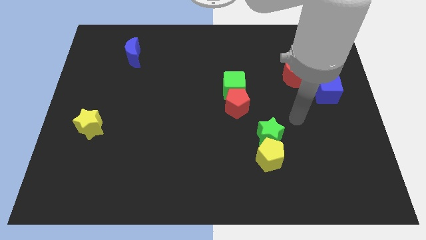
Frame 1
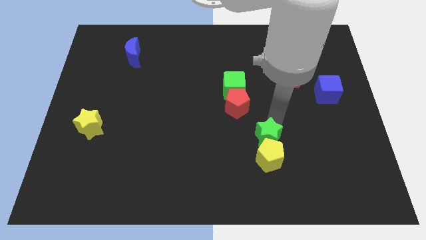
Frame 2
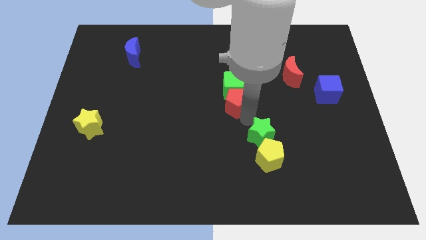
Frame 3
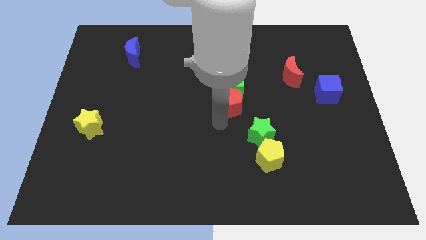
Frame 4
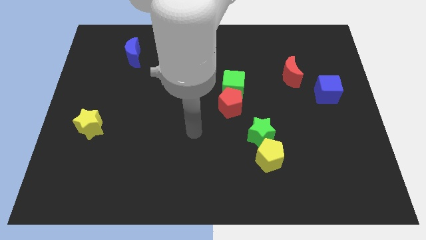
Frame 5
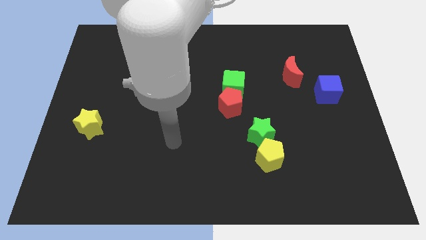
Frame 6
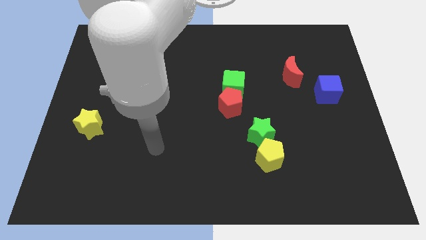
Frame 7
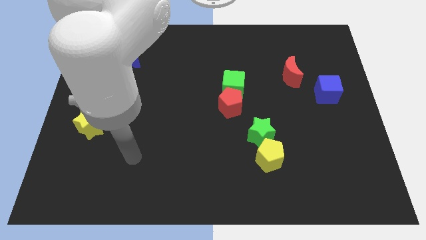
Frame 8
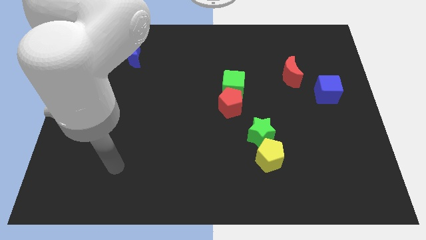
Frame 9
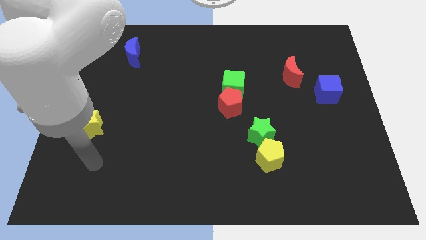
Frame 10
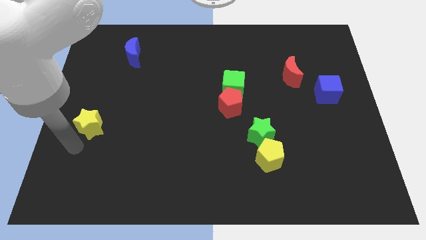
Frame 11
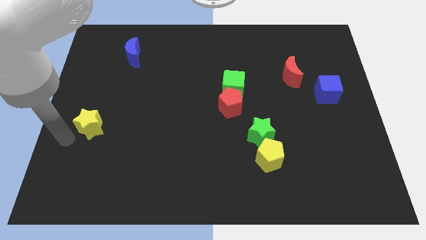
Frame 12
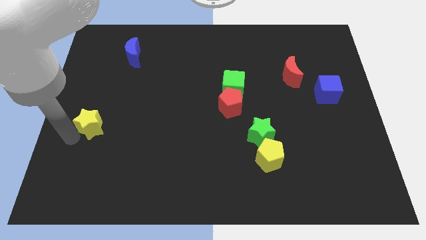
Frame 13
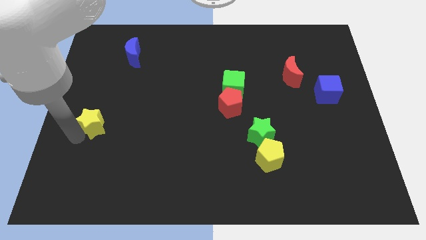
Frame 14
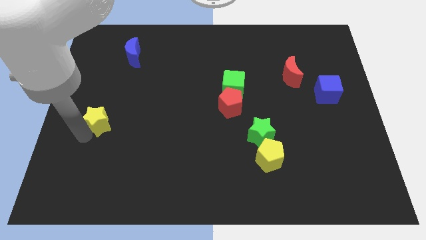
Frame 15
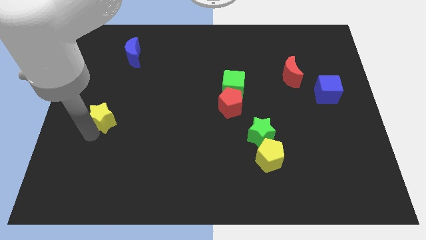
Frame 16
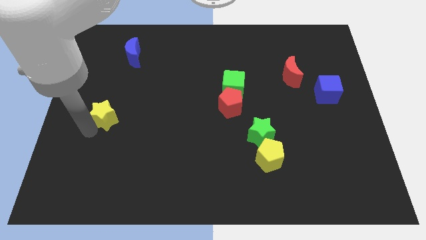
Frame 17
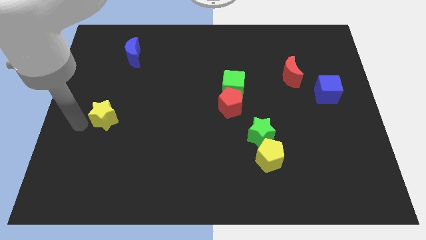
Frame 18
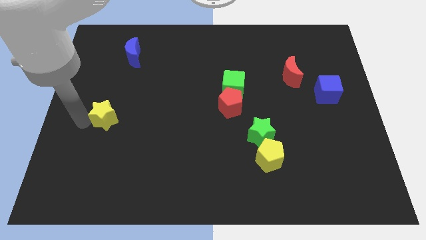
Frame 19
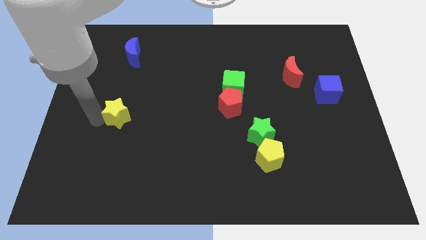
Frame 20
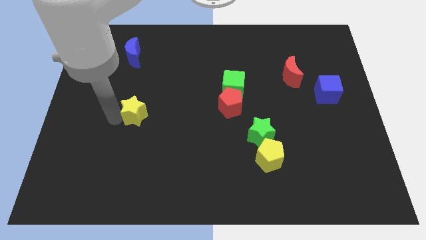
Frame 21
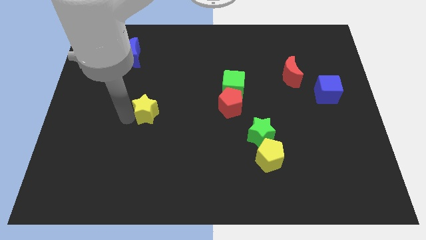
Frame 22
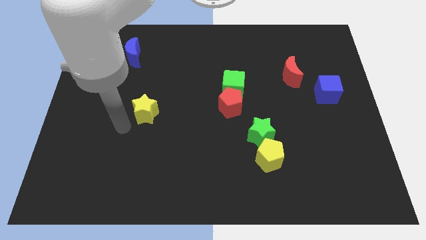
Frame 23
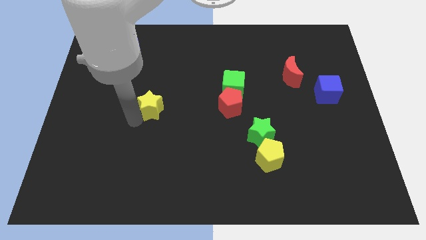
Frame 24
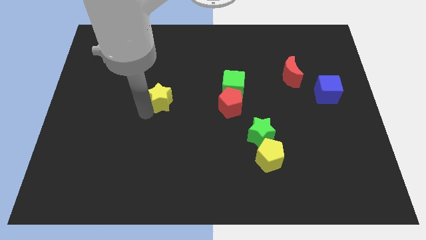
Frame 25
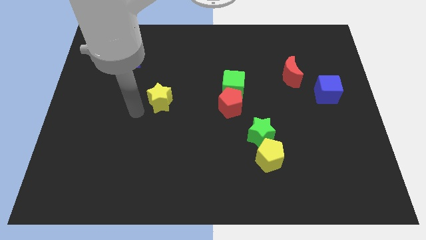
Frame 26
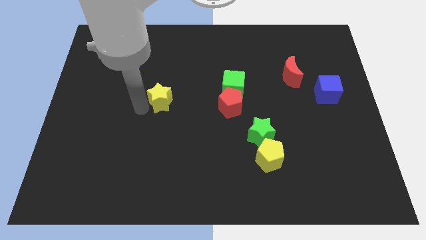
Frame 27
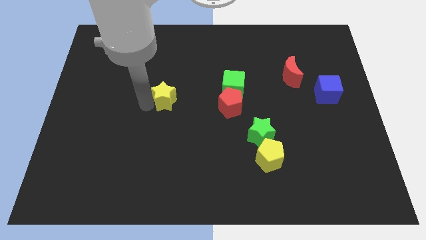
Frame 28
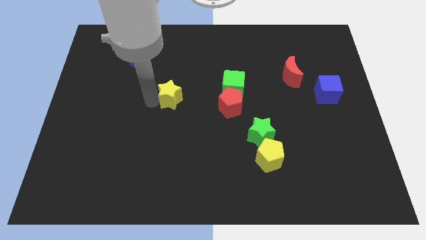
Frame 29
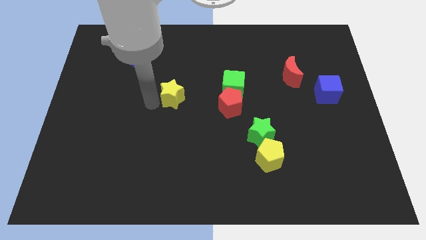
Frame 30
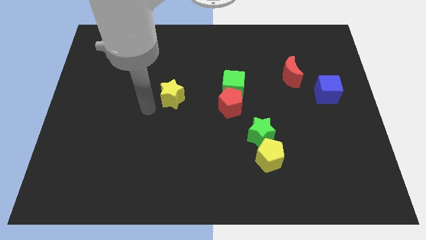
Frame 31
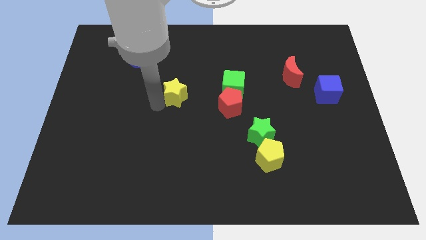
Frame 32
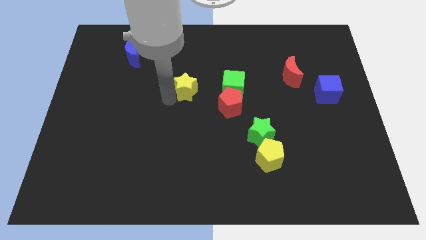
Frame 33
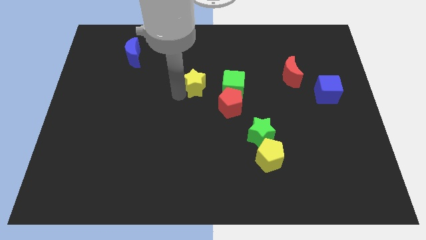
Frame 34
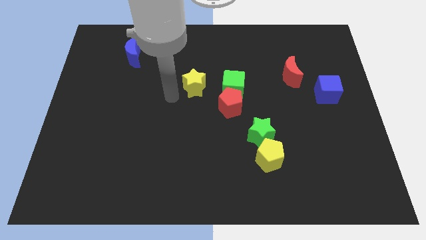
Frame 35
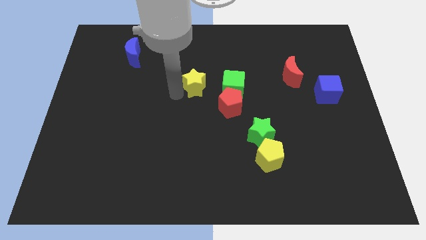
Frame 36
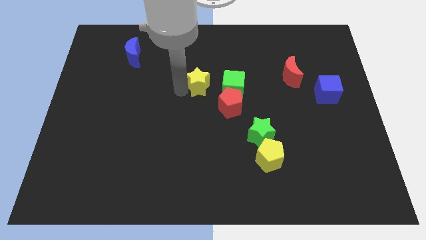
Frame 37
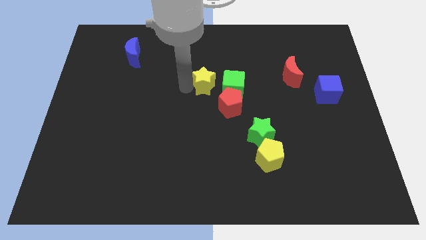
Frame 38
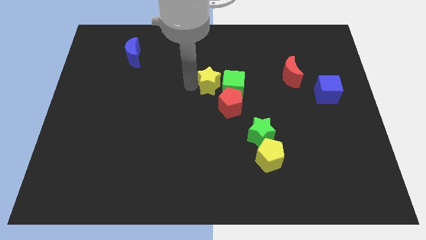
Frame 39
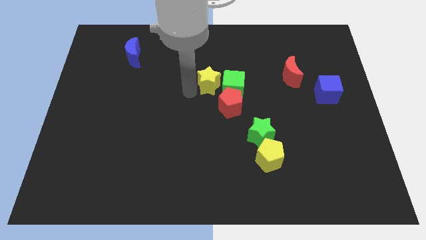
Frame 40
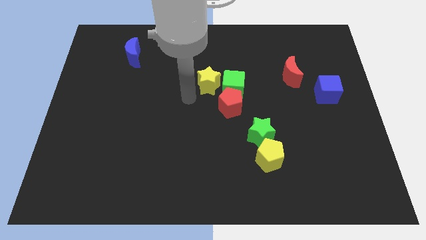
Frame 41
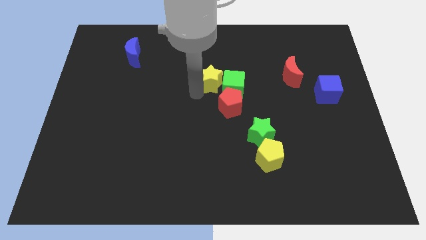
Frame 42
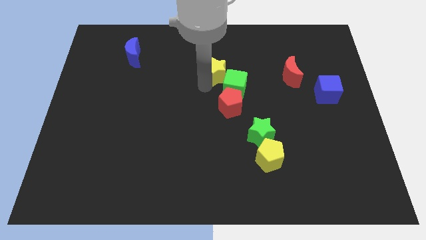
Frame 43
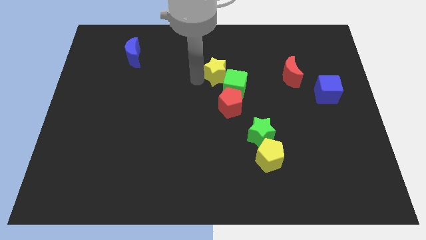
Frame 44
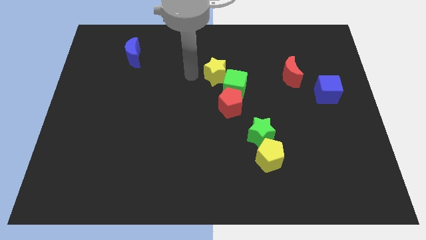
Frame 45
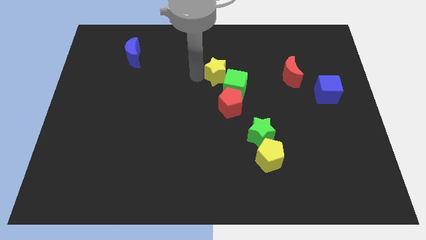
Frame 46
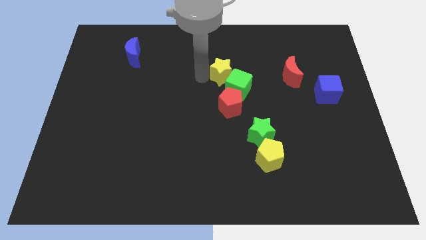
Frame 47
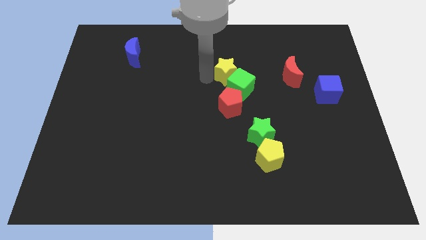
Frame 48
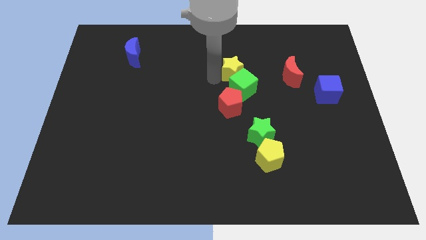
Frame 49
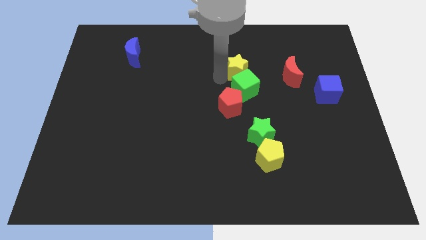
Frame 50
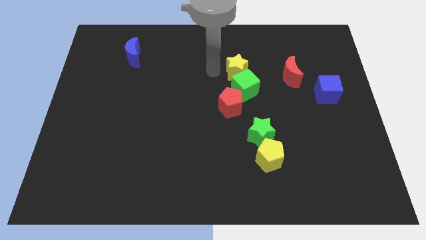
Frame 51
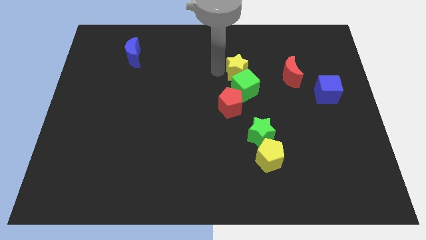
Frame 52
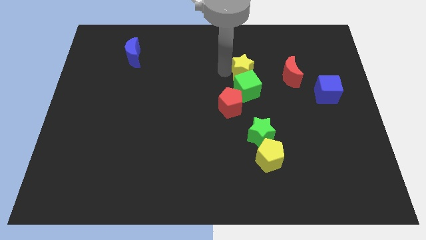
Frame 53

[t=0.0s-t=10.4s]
move the yellow star to the top right of the green cube

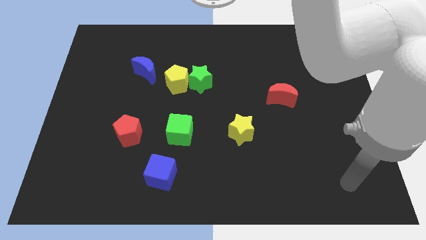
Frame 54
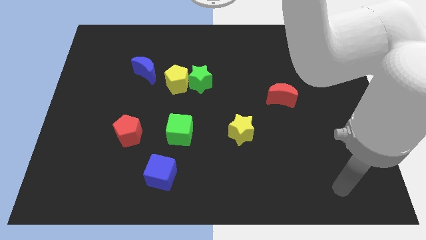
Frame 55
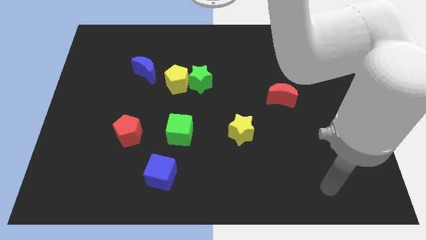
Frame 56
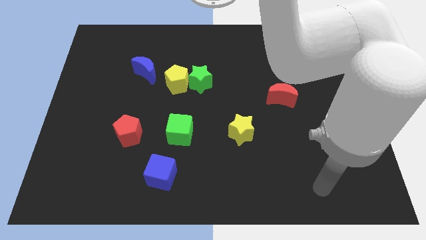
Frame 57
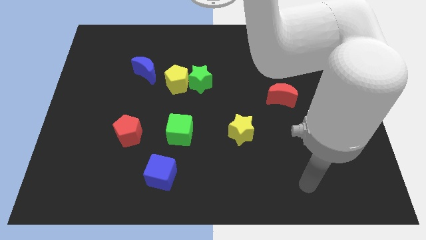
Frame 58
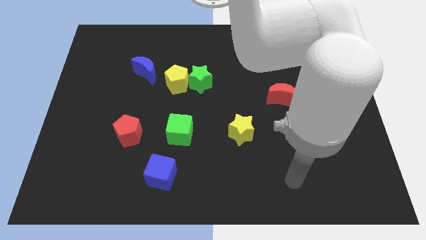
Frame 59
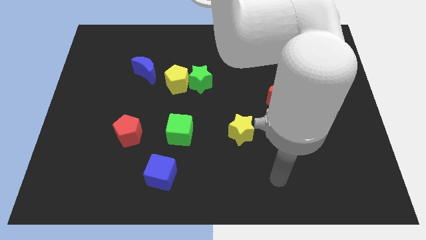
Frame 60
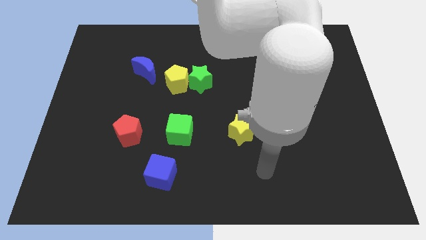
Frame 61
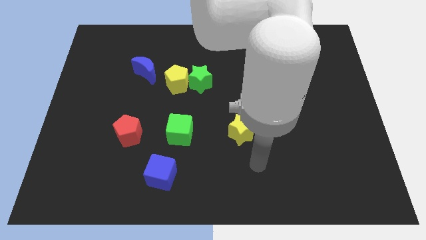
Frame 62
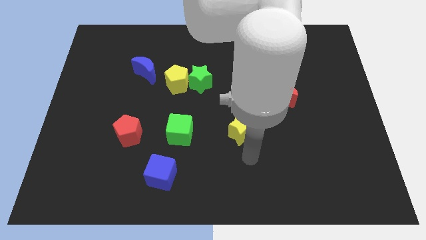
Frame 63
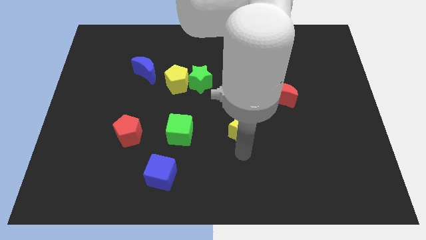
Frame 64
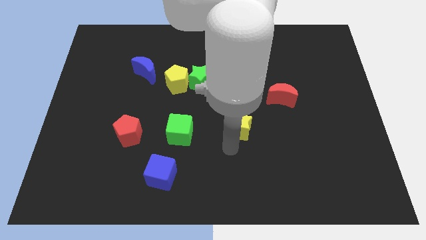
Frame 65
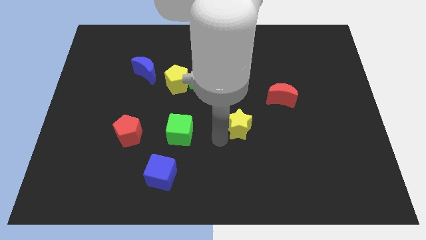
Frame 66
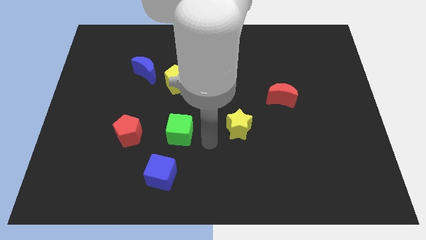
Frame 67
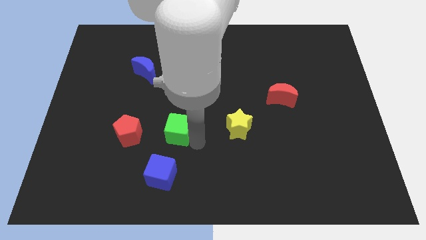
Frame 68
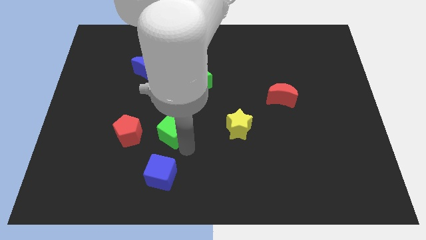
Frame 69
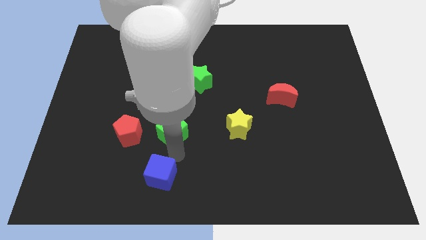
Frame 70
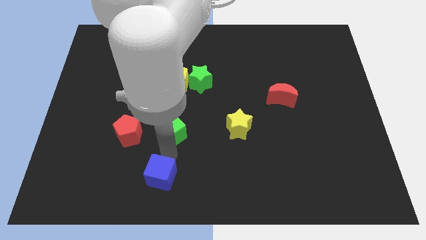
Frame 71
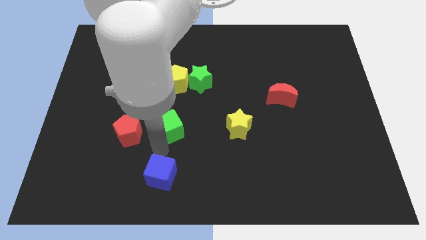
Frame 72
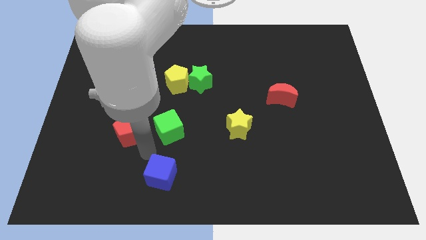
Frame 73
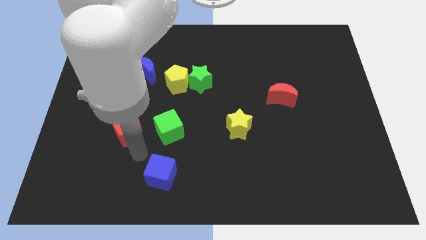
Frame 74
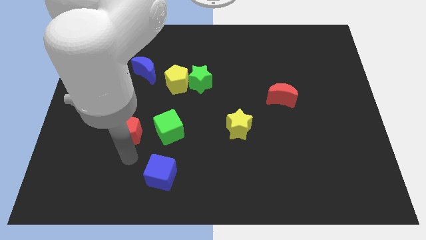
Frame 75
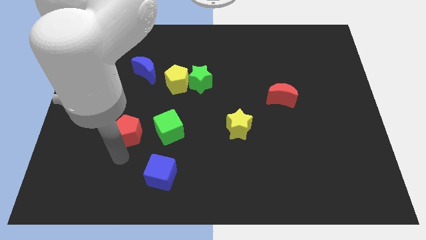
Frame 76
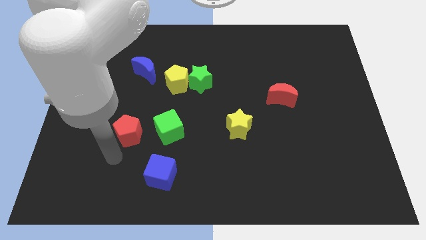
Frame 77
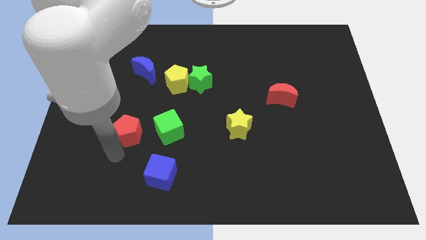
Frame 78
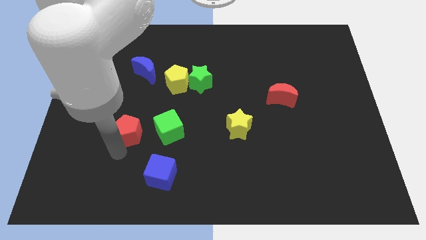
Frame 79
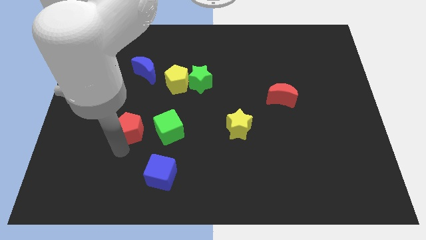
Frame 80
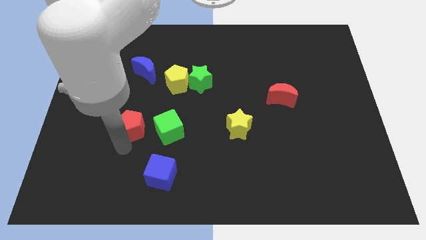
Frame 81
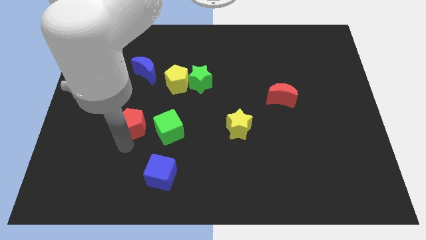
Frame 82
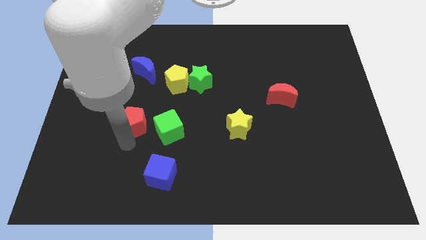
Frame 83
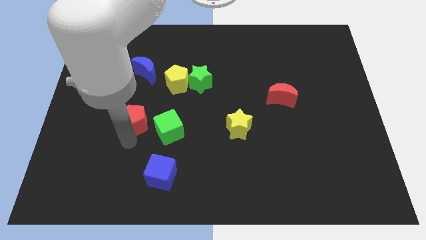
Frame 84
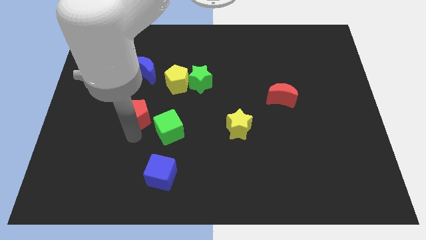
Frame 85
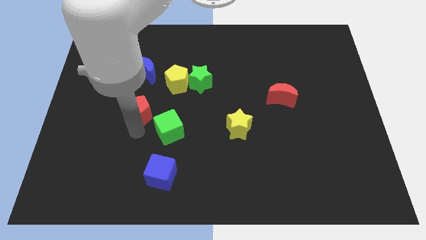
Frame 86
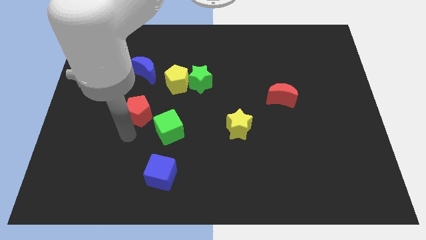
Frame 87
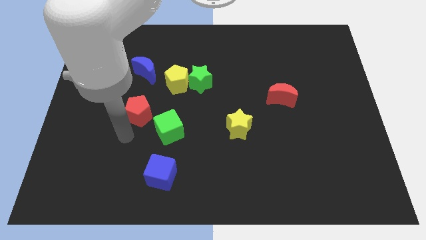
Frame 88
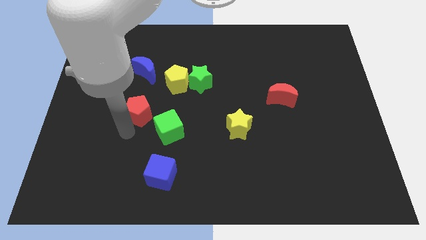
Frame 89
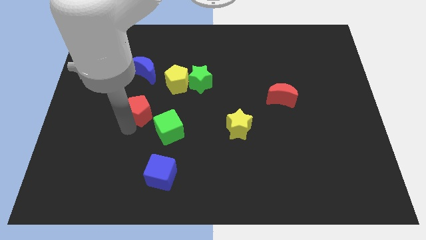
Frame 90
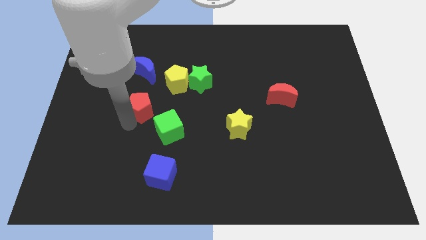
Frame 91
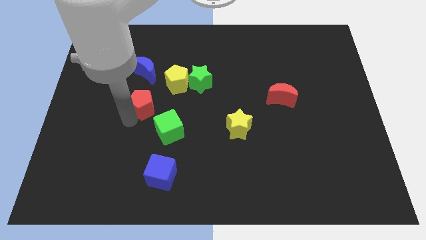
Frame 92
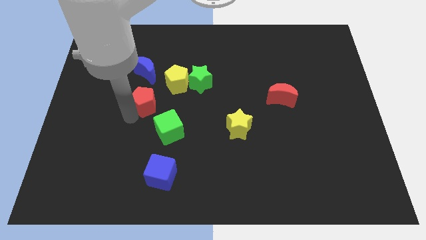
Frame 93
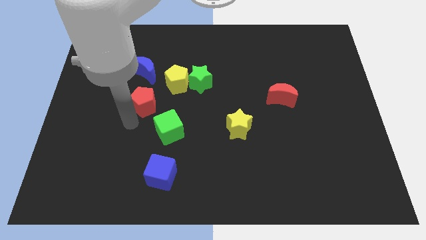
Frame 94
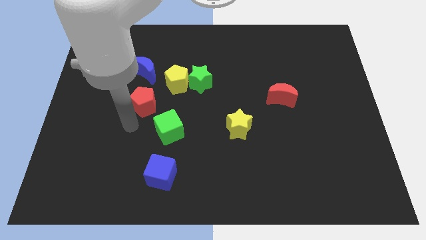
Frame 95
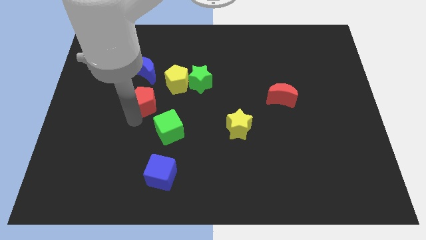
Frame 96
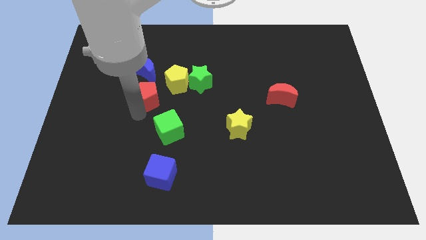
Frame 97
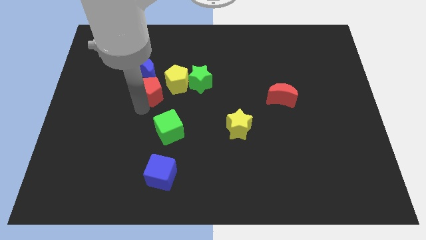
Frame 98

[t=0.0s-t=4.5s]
slide the red pentagon just left of the green star
